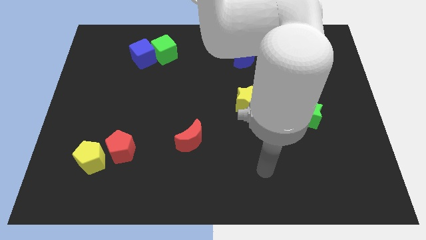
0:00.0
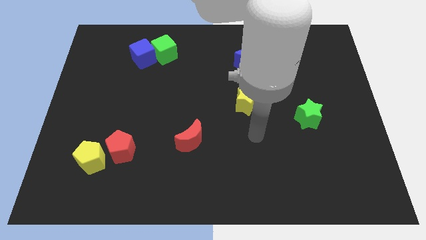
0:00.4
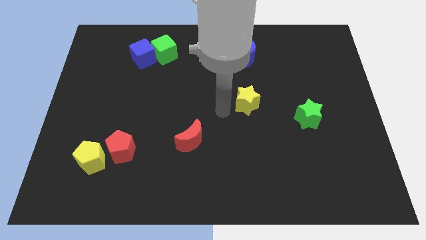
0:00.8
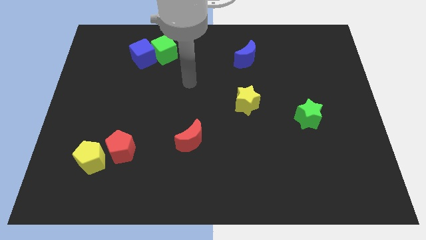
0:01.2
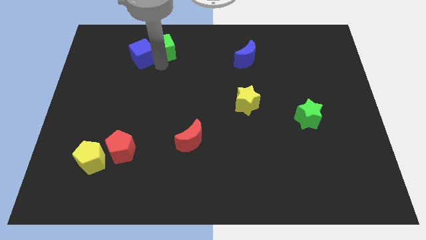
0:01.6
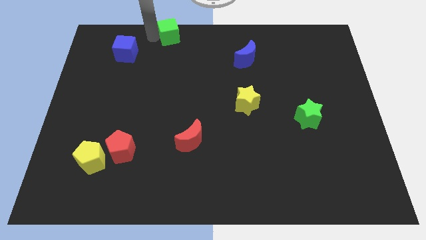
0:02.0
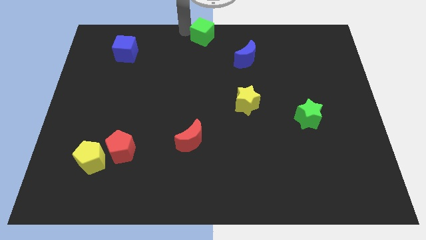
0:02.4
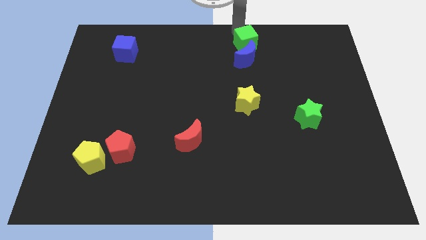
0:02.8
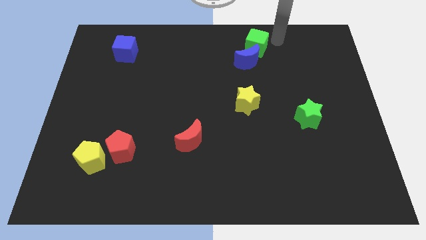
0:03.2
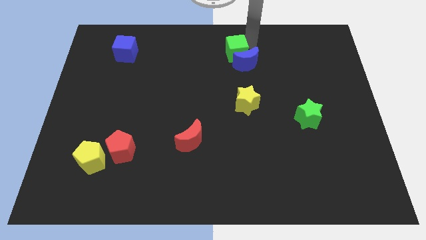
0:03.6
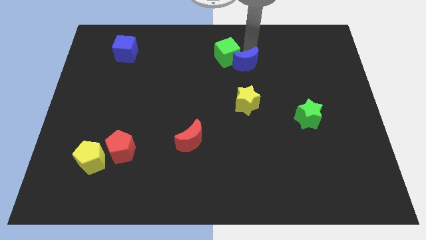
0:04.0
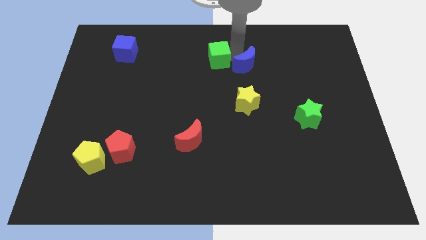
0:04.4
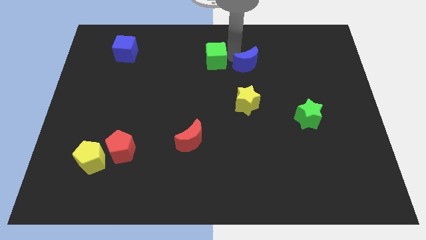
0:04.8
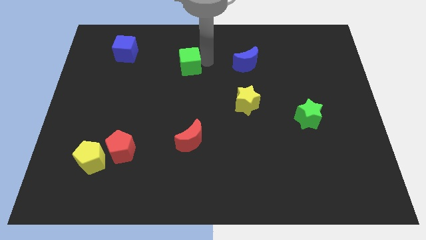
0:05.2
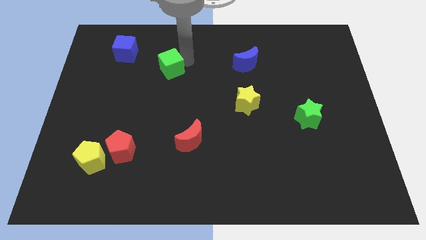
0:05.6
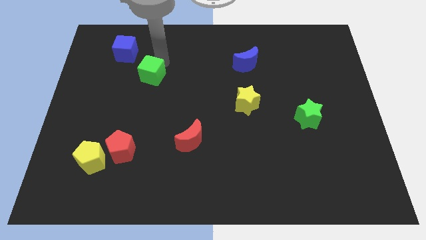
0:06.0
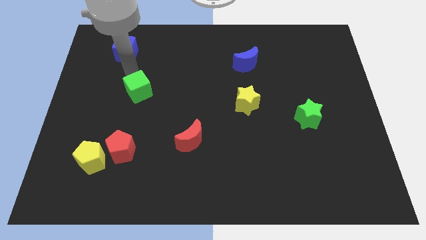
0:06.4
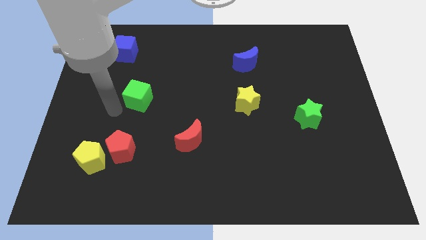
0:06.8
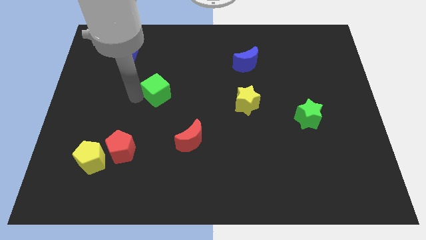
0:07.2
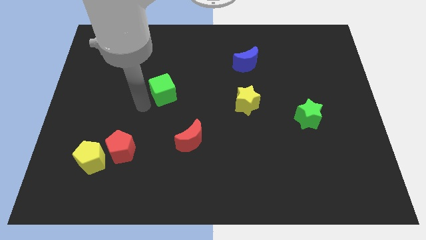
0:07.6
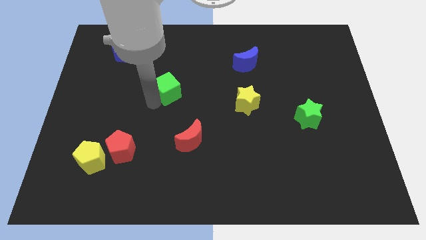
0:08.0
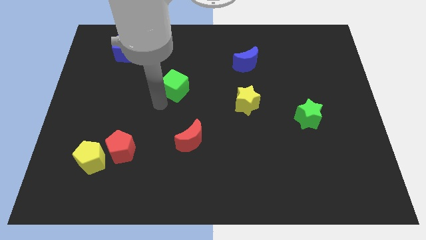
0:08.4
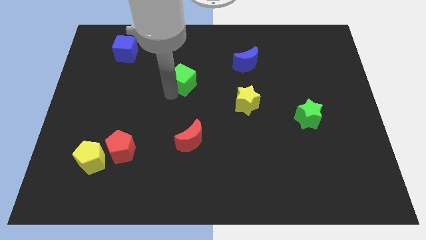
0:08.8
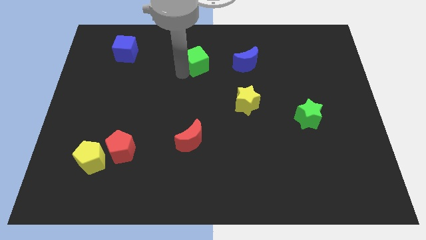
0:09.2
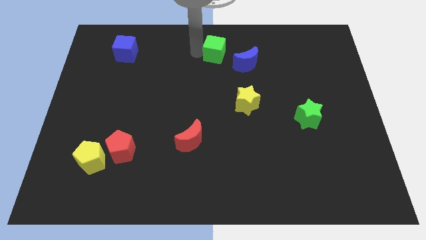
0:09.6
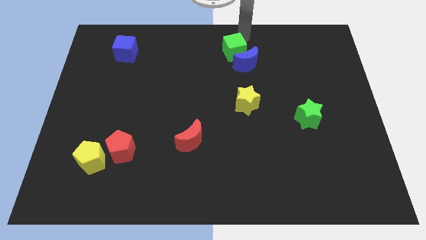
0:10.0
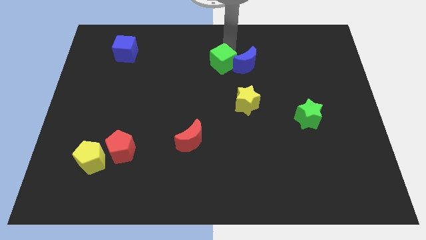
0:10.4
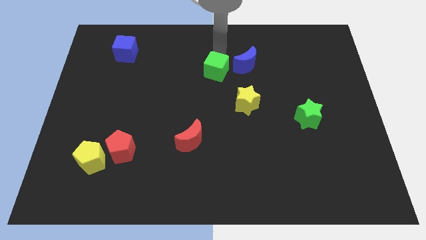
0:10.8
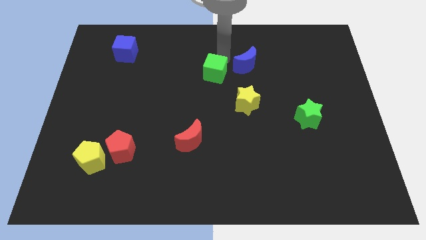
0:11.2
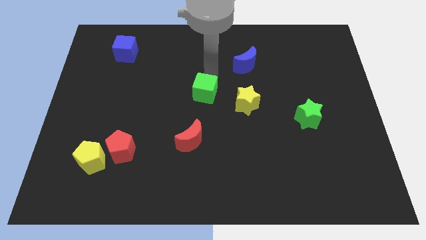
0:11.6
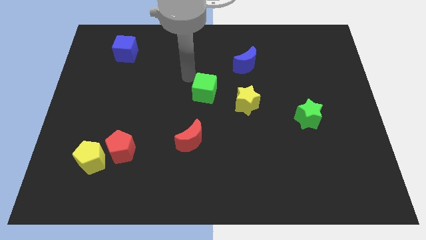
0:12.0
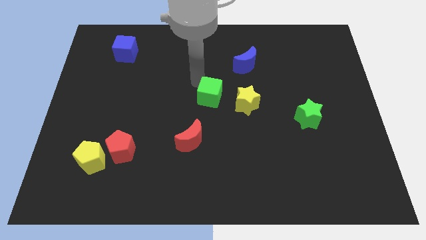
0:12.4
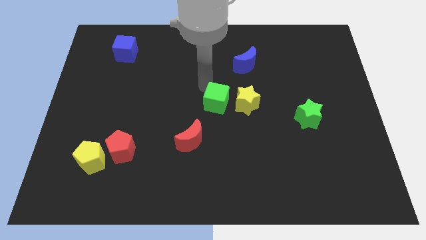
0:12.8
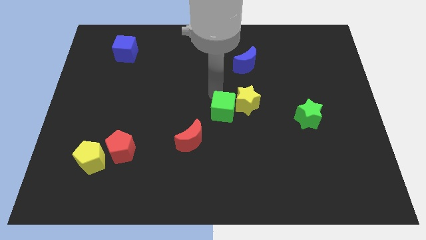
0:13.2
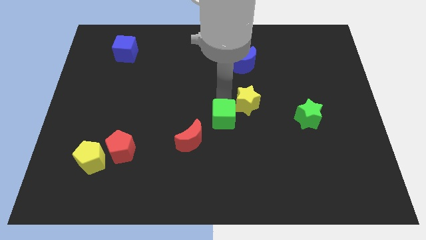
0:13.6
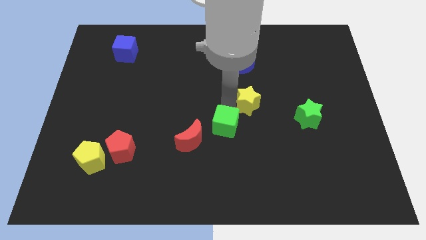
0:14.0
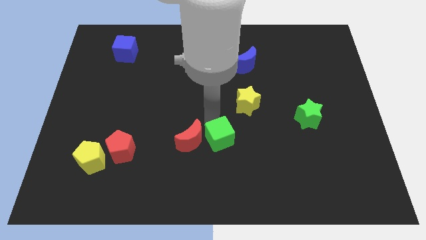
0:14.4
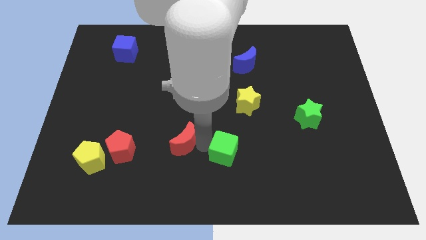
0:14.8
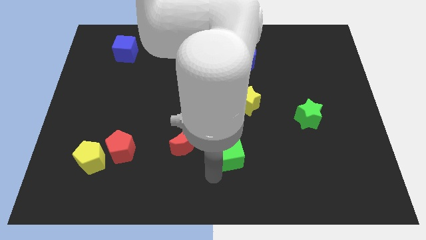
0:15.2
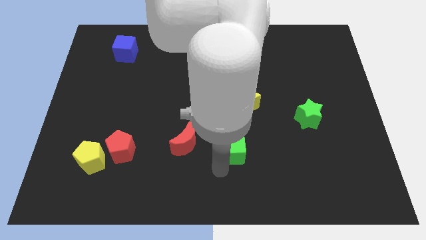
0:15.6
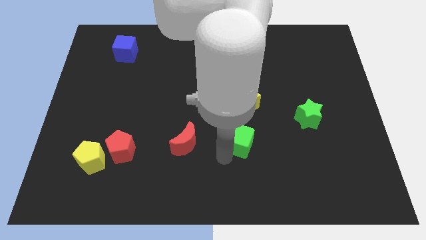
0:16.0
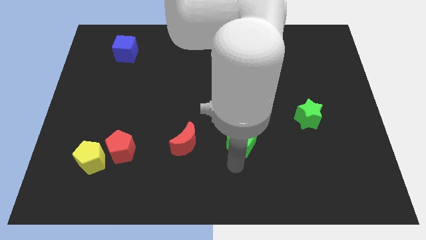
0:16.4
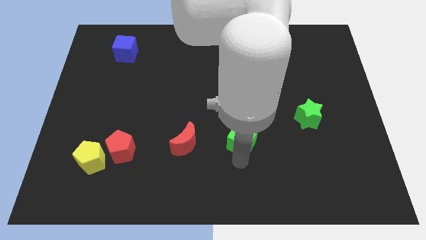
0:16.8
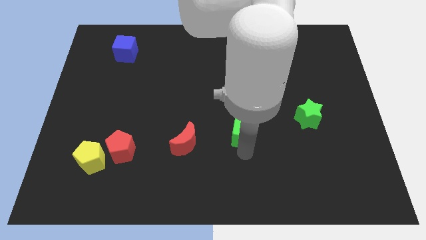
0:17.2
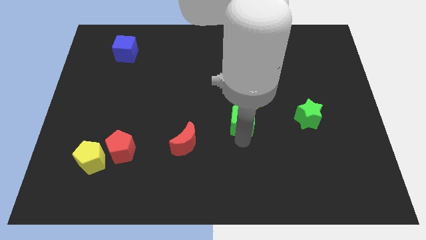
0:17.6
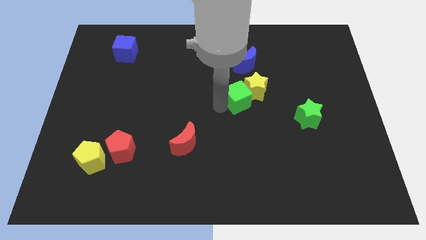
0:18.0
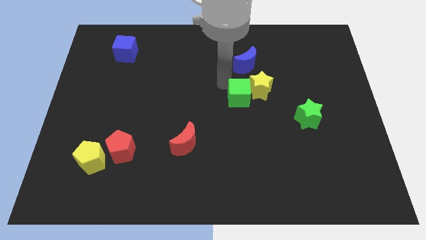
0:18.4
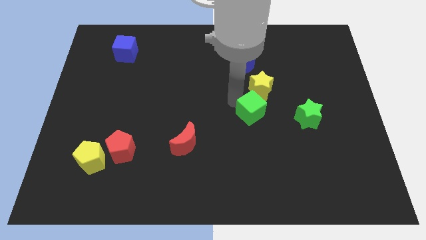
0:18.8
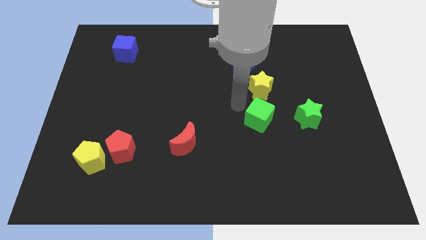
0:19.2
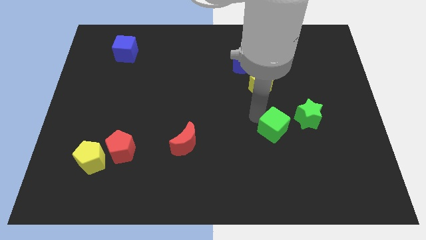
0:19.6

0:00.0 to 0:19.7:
move the green cube to the bottom left of the green star

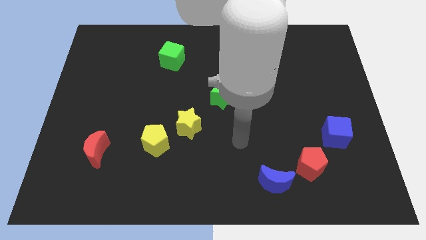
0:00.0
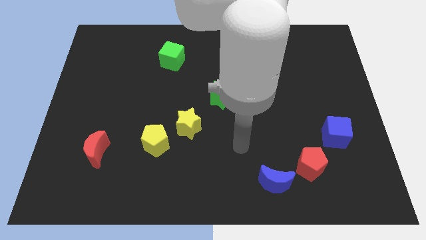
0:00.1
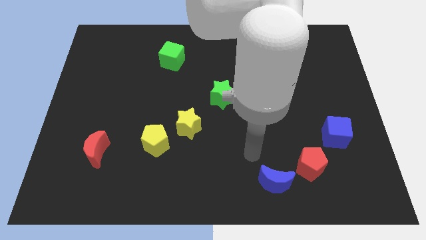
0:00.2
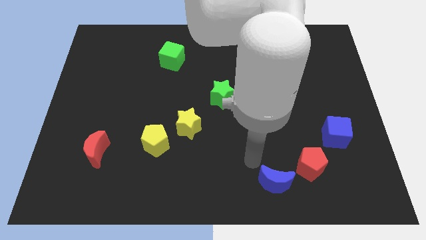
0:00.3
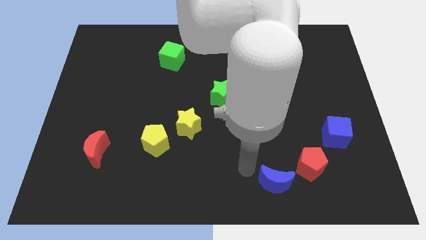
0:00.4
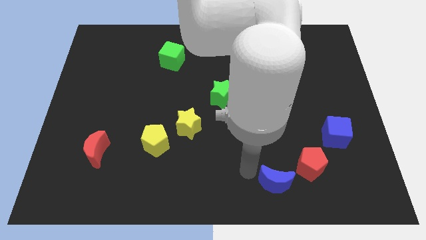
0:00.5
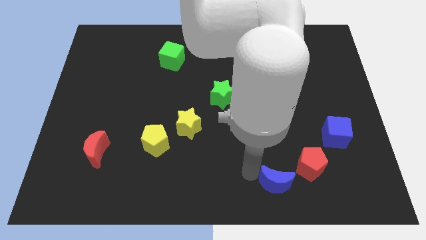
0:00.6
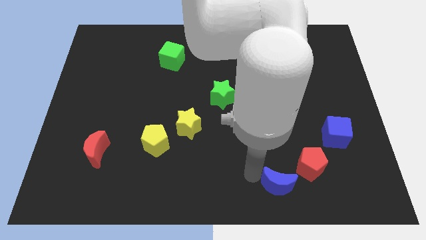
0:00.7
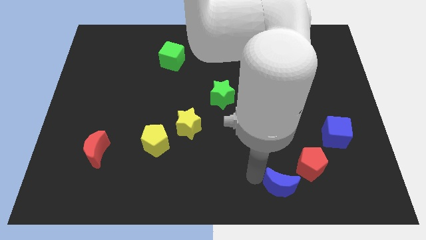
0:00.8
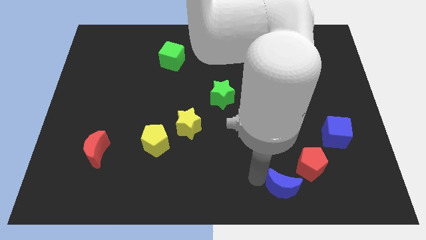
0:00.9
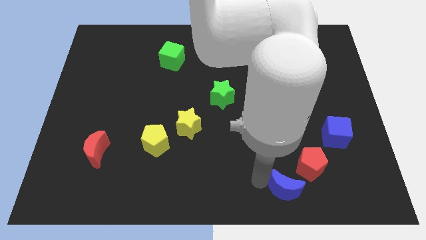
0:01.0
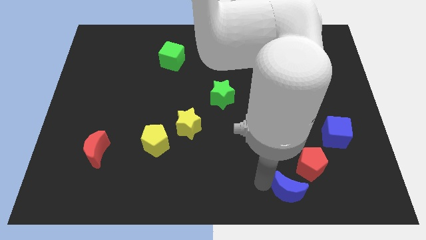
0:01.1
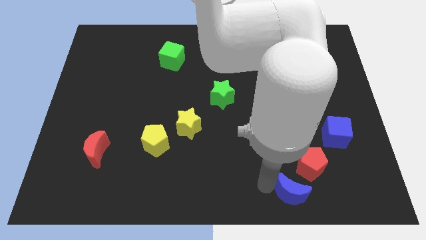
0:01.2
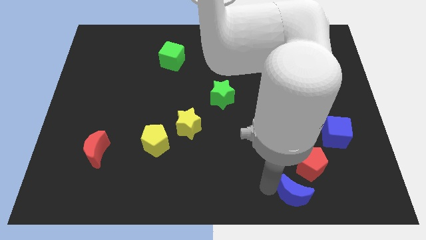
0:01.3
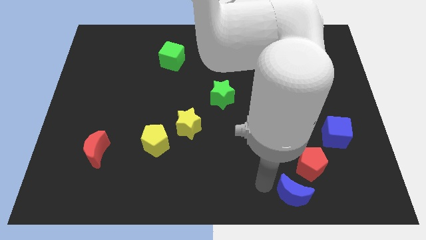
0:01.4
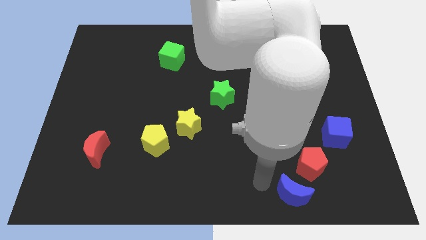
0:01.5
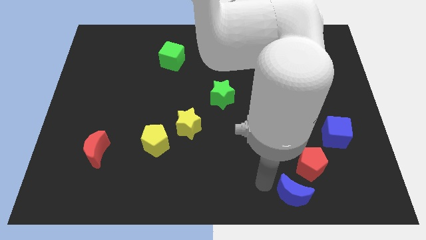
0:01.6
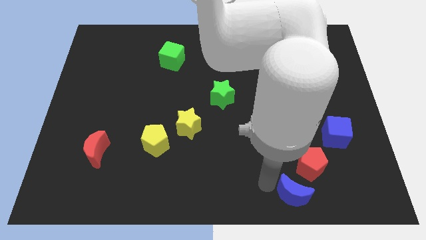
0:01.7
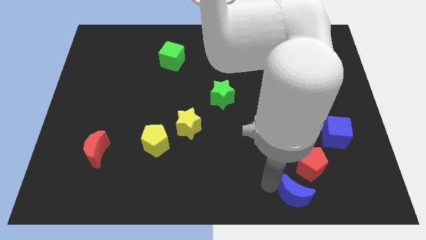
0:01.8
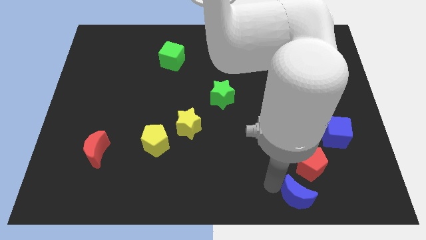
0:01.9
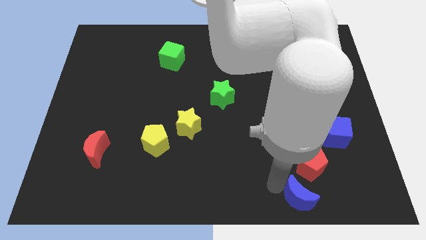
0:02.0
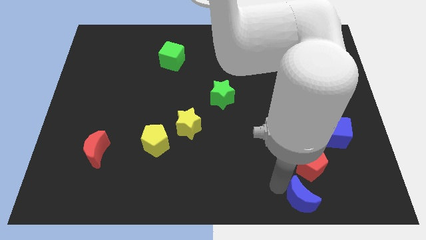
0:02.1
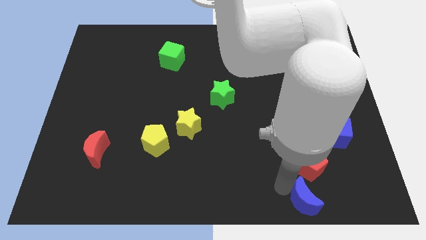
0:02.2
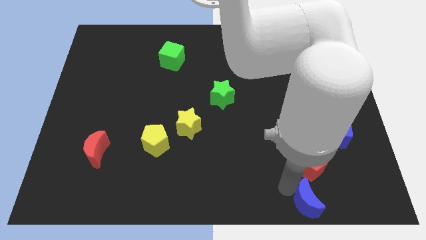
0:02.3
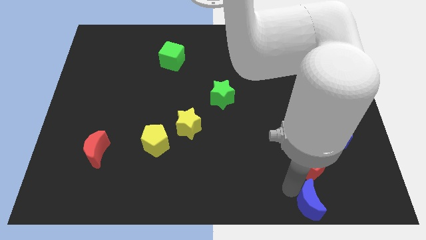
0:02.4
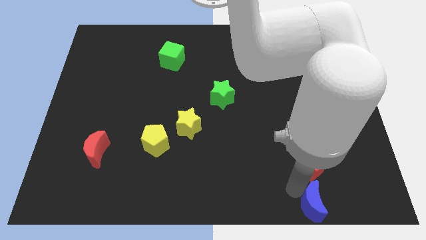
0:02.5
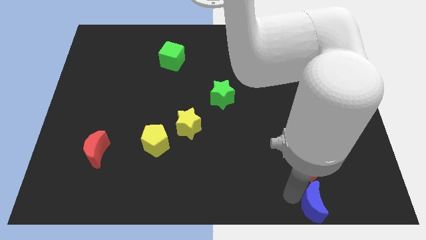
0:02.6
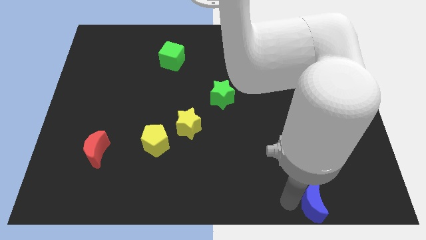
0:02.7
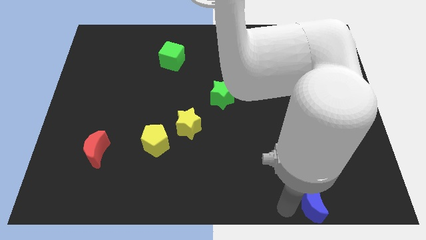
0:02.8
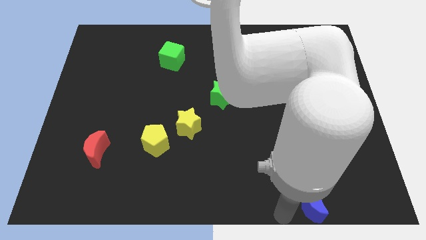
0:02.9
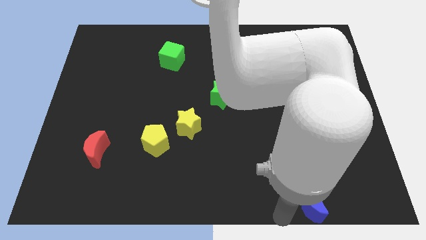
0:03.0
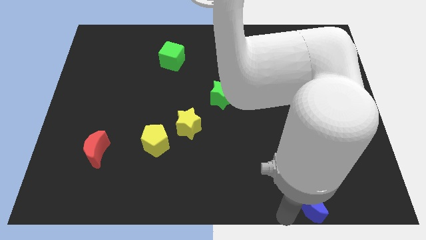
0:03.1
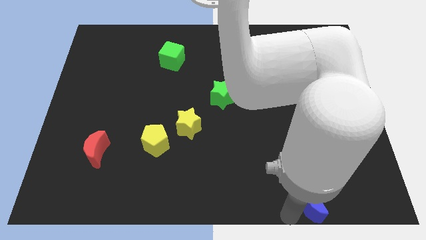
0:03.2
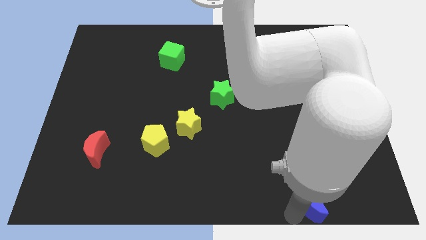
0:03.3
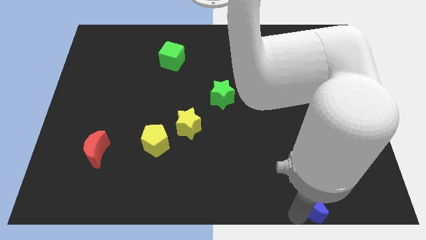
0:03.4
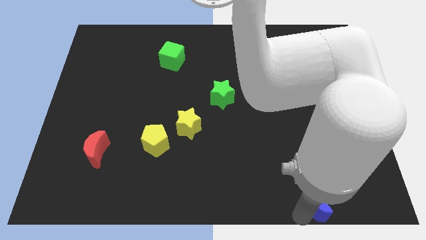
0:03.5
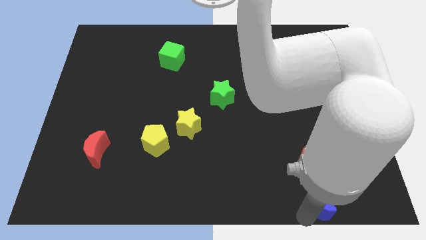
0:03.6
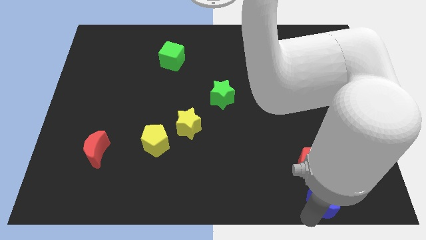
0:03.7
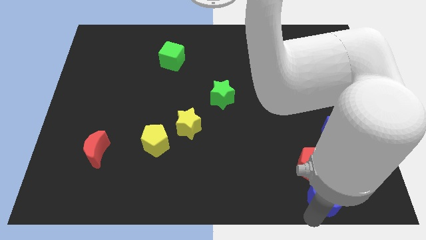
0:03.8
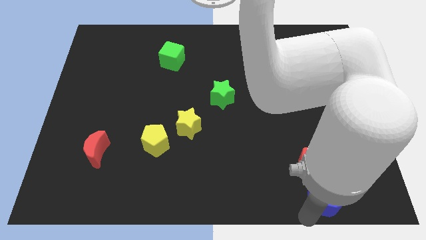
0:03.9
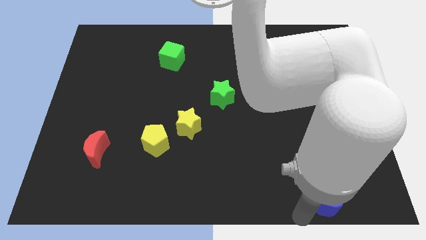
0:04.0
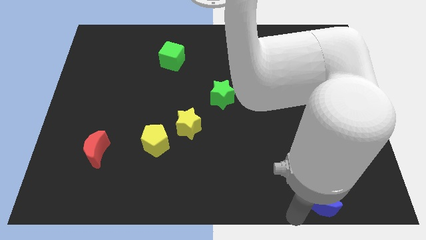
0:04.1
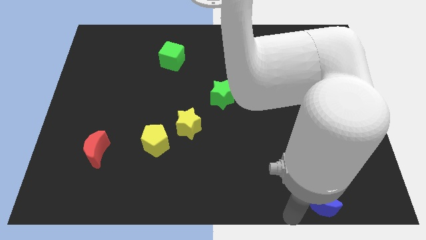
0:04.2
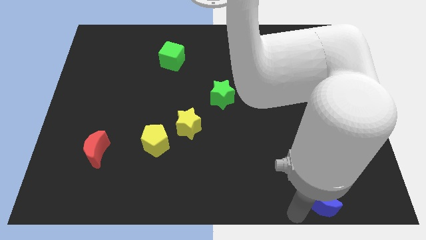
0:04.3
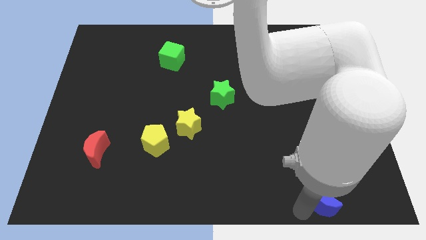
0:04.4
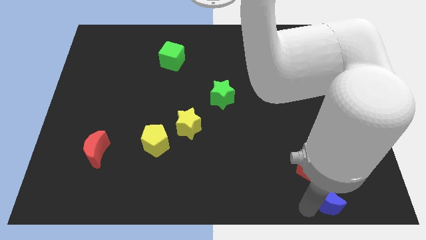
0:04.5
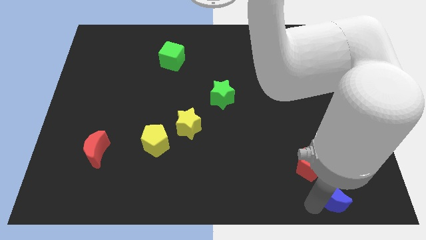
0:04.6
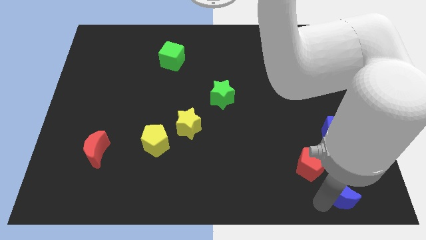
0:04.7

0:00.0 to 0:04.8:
put the blue moon to the bottom side of the blue cube
